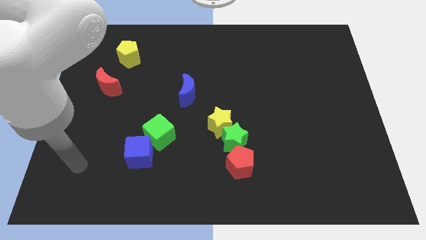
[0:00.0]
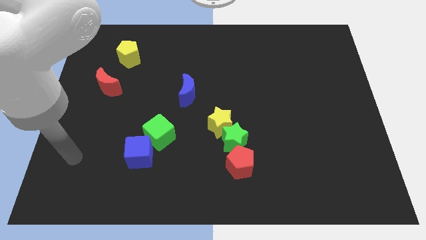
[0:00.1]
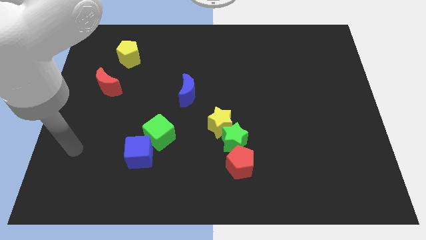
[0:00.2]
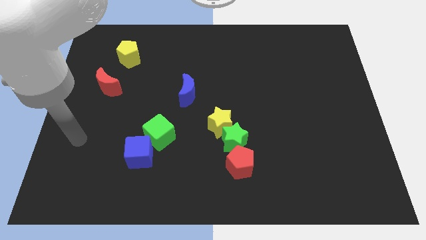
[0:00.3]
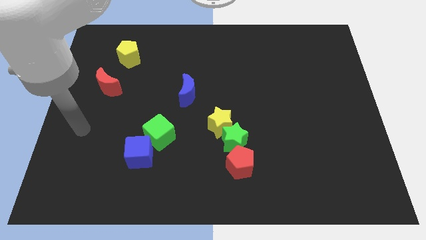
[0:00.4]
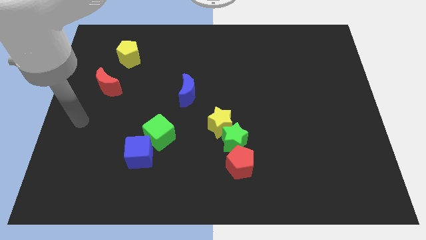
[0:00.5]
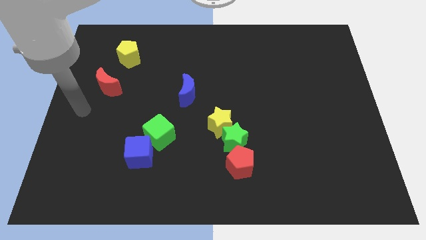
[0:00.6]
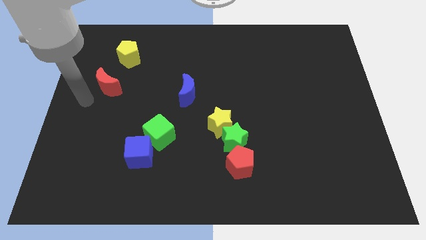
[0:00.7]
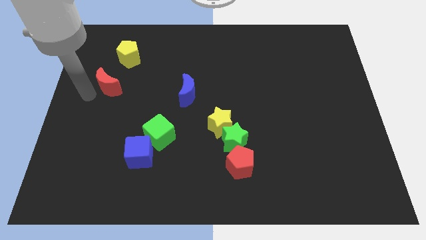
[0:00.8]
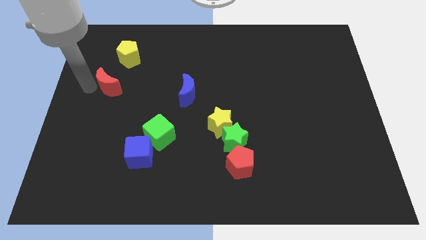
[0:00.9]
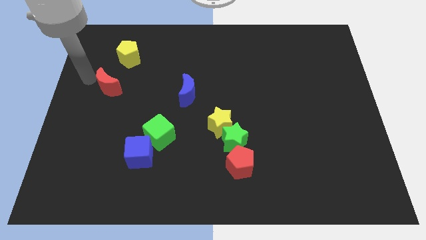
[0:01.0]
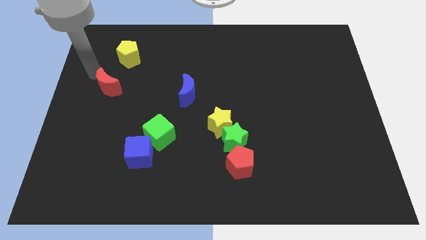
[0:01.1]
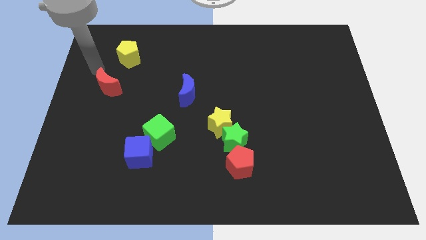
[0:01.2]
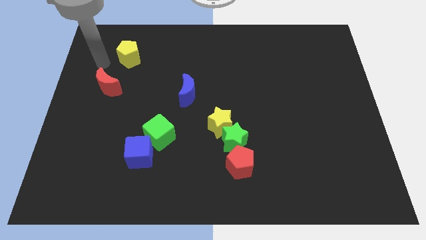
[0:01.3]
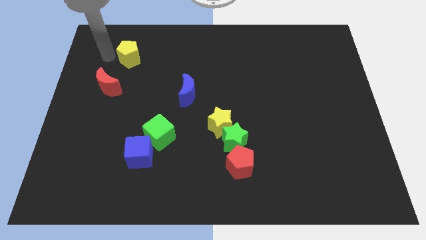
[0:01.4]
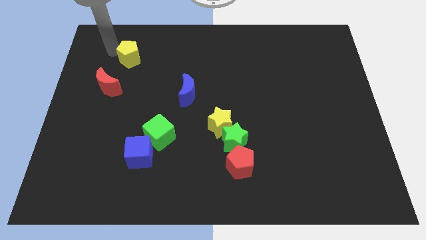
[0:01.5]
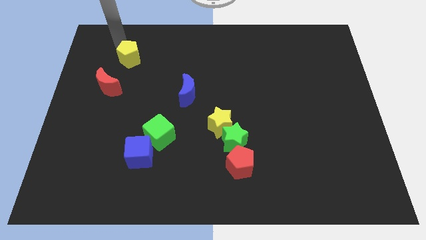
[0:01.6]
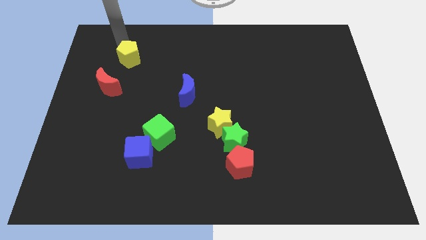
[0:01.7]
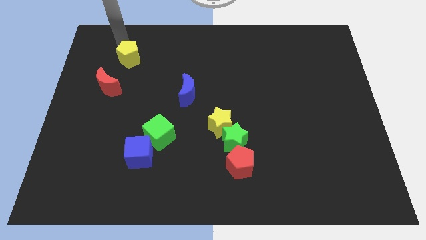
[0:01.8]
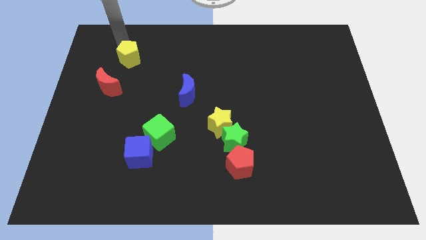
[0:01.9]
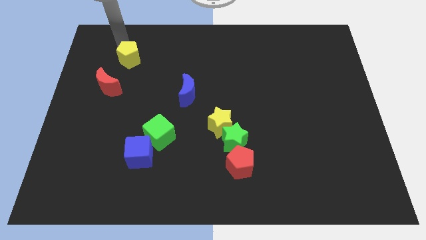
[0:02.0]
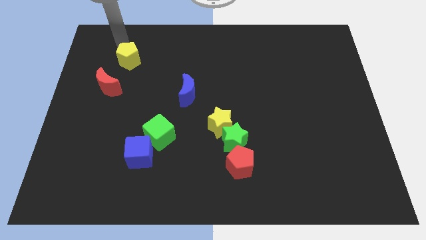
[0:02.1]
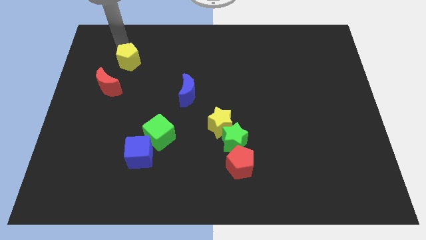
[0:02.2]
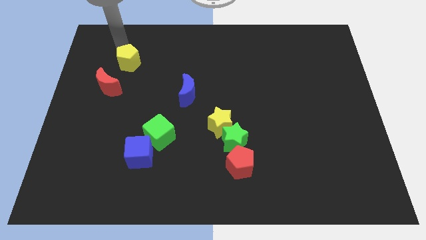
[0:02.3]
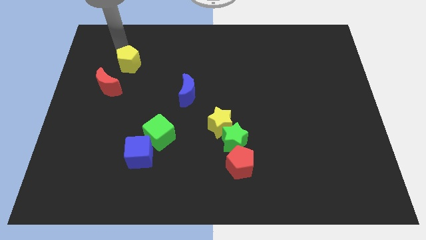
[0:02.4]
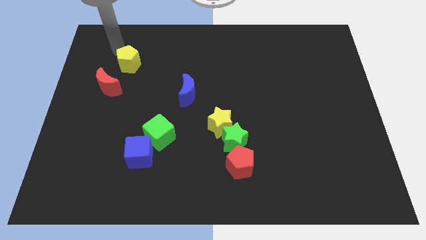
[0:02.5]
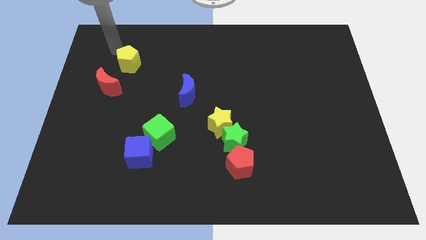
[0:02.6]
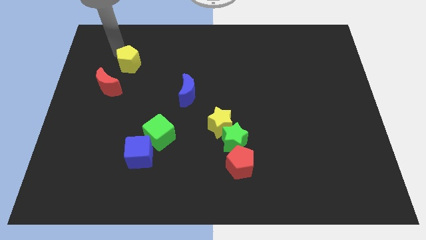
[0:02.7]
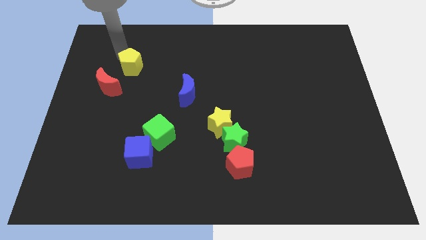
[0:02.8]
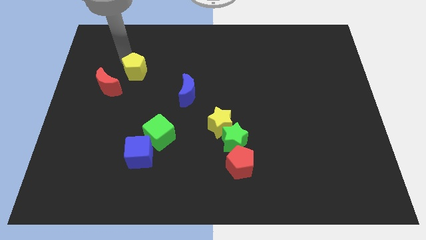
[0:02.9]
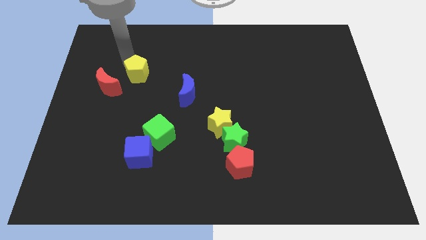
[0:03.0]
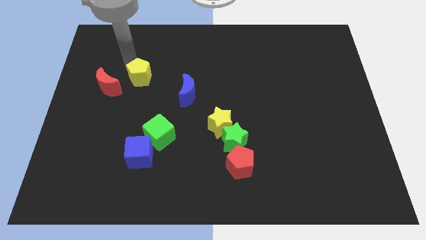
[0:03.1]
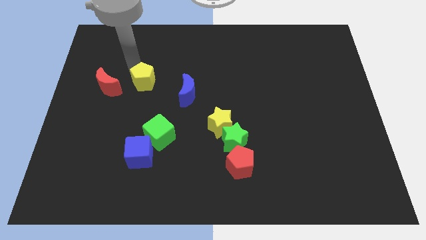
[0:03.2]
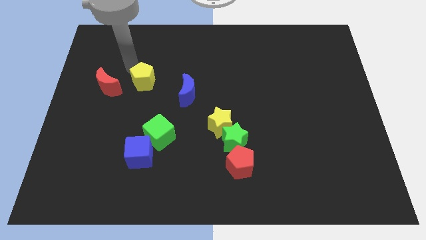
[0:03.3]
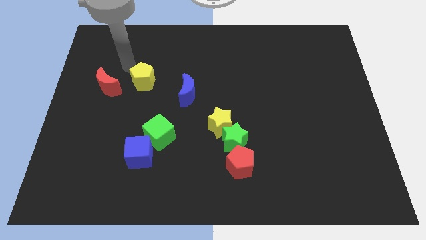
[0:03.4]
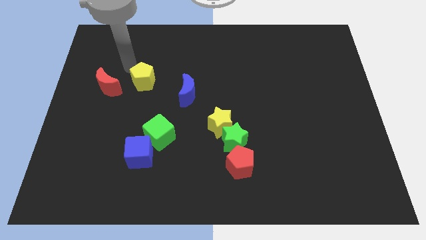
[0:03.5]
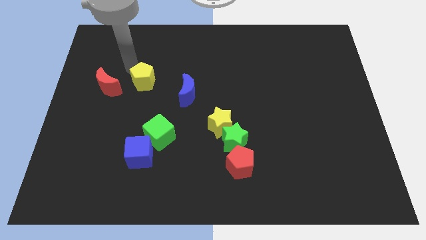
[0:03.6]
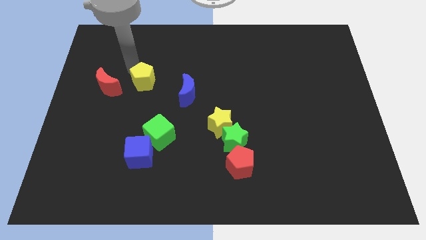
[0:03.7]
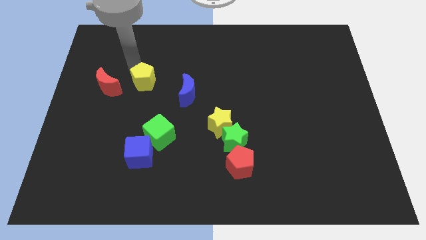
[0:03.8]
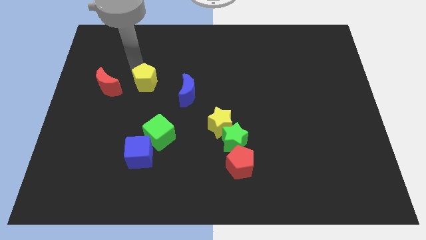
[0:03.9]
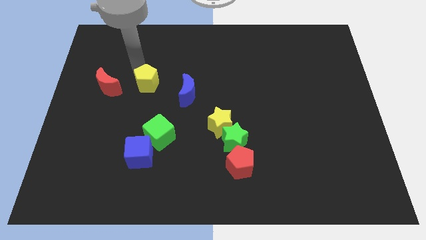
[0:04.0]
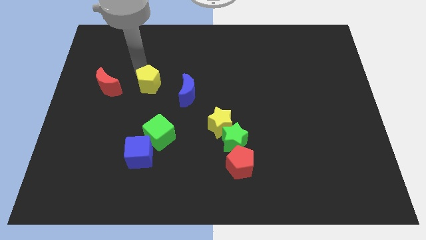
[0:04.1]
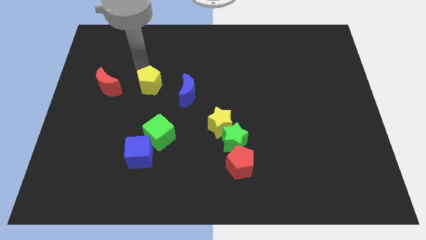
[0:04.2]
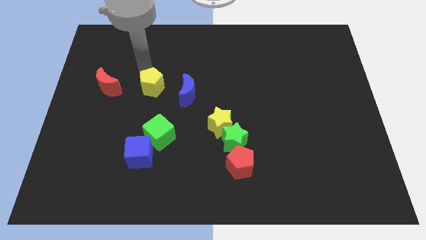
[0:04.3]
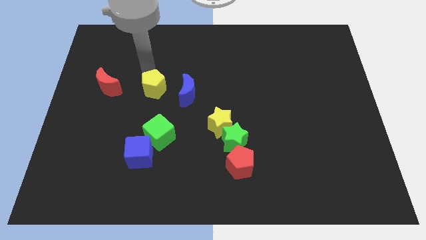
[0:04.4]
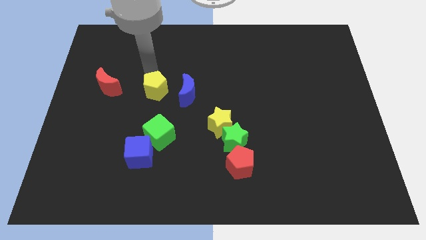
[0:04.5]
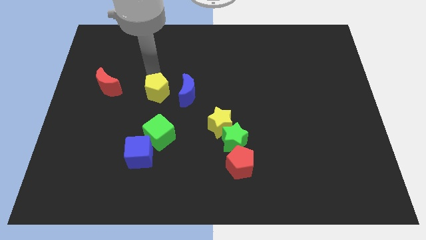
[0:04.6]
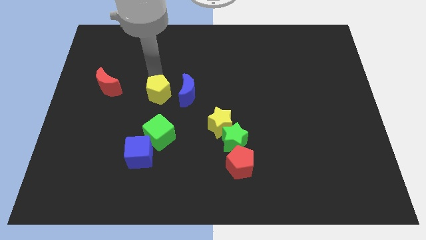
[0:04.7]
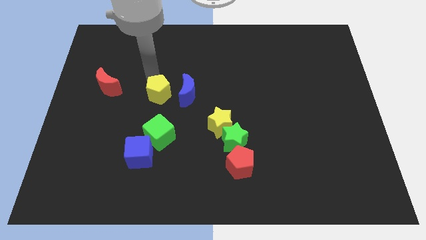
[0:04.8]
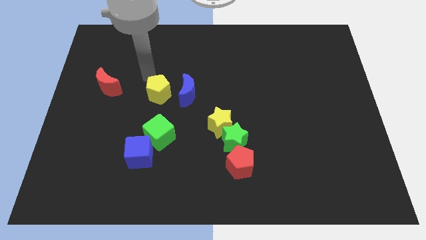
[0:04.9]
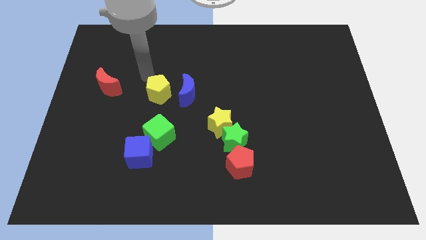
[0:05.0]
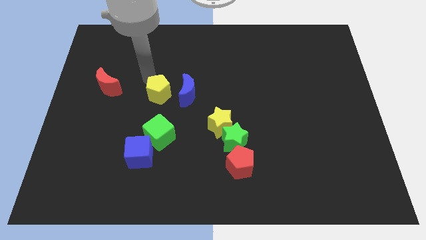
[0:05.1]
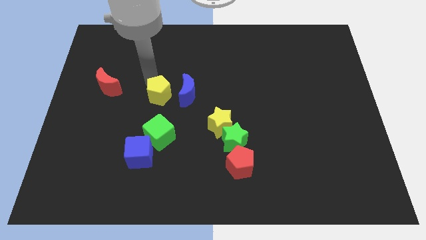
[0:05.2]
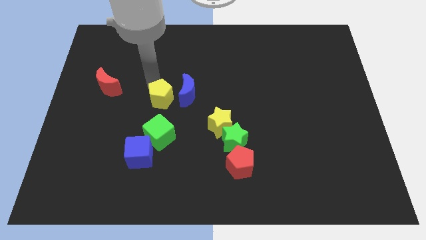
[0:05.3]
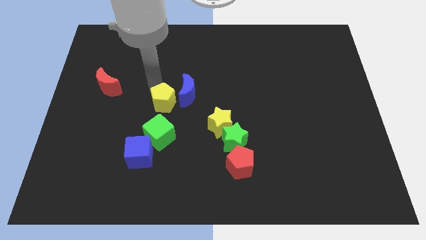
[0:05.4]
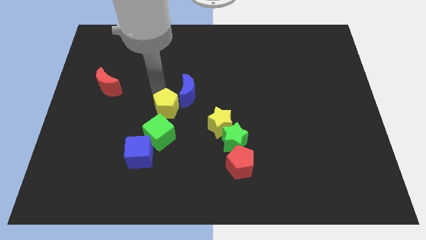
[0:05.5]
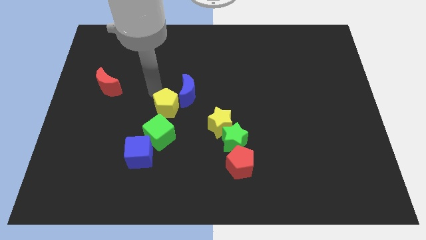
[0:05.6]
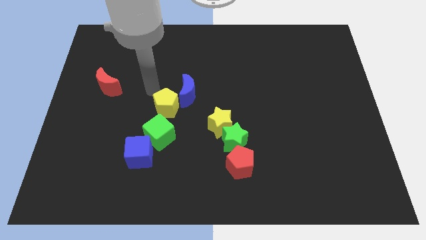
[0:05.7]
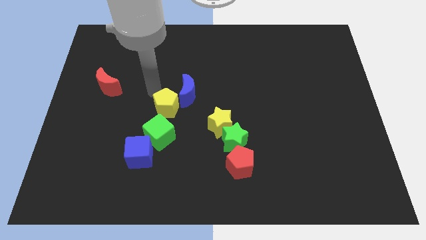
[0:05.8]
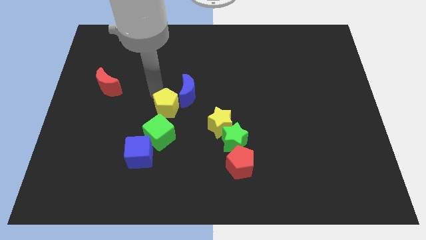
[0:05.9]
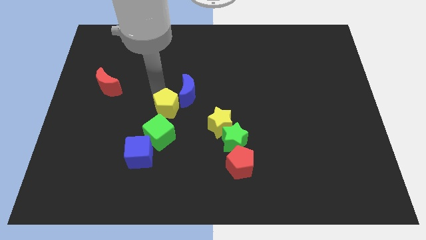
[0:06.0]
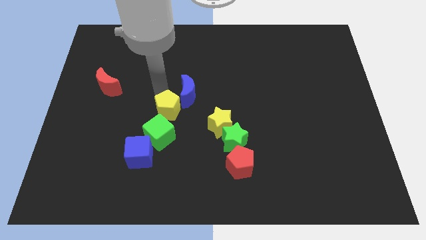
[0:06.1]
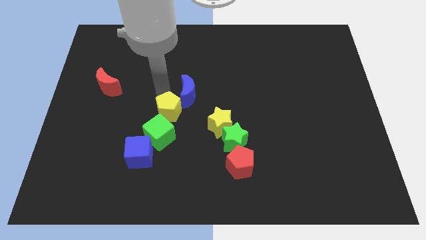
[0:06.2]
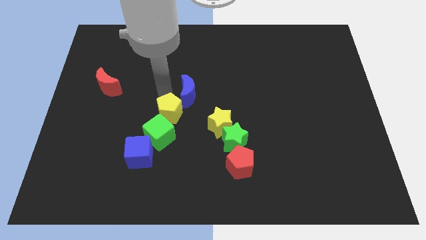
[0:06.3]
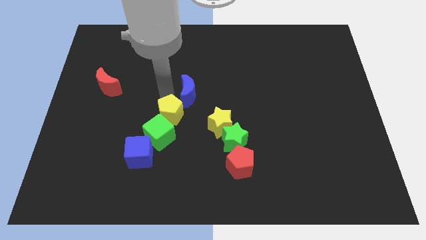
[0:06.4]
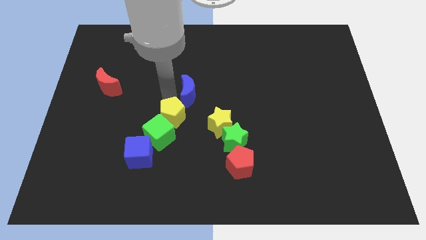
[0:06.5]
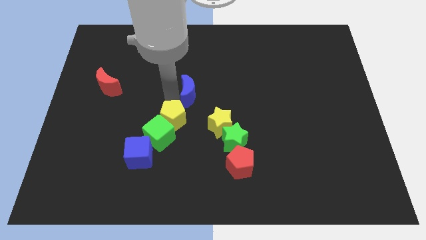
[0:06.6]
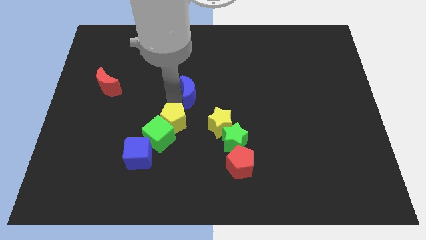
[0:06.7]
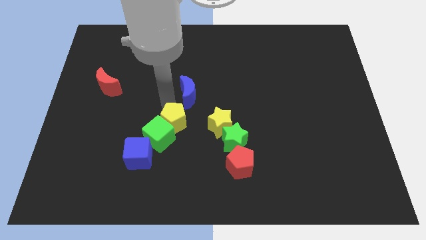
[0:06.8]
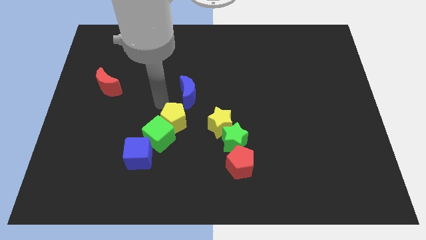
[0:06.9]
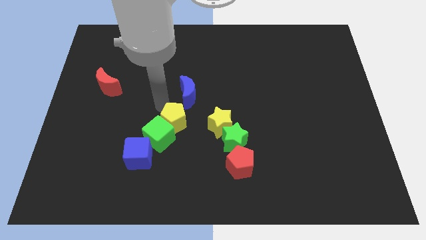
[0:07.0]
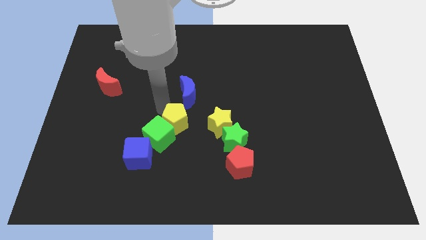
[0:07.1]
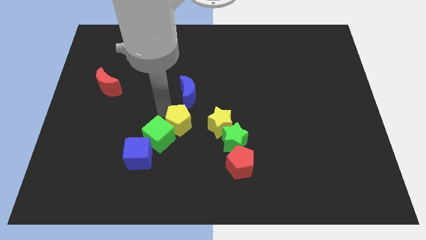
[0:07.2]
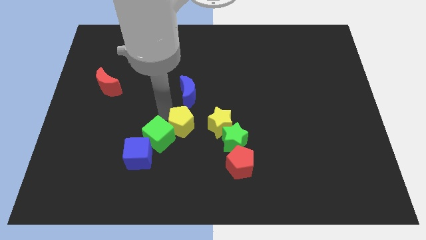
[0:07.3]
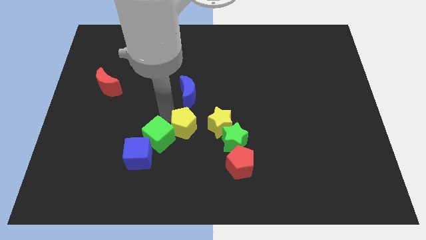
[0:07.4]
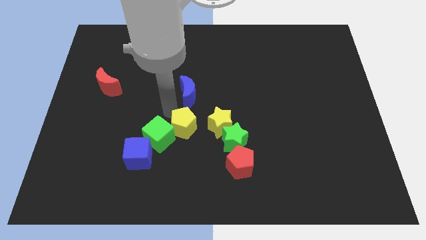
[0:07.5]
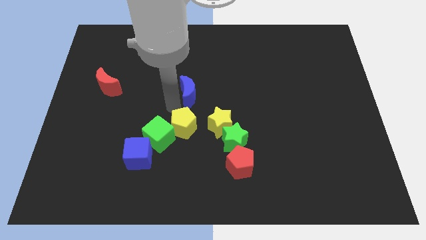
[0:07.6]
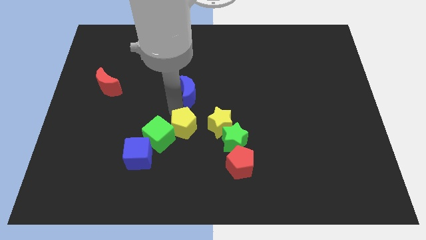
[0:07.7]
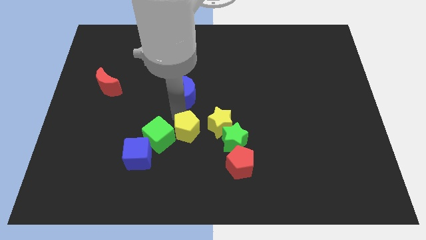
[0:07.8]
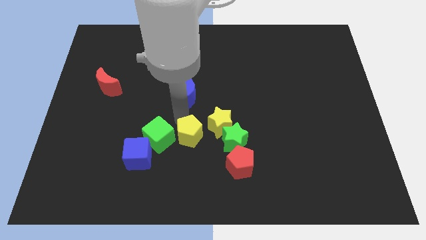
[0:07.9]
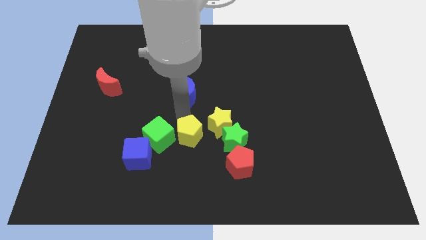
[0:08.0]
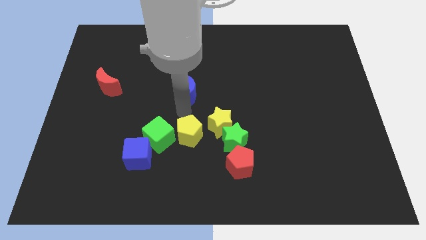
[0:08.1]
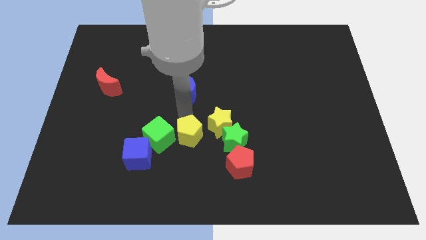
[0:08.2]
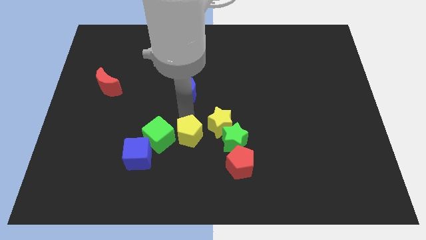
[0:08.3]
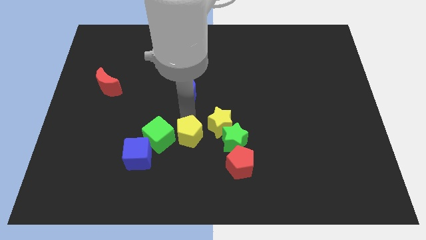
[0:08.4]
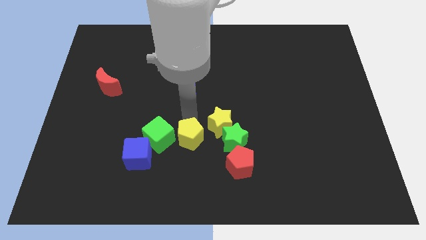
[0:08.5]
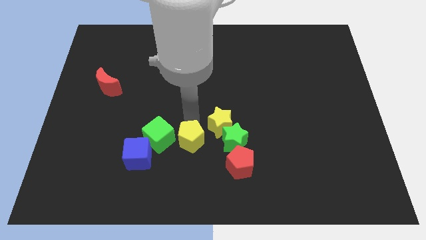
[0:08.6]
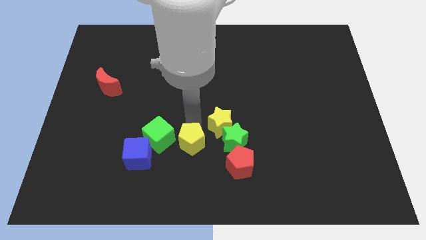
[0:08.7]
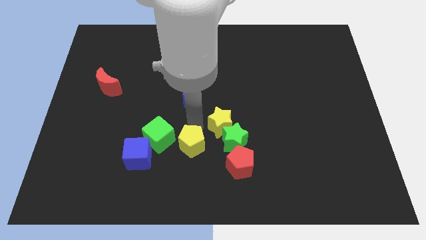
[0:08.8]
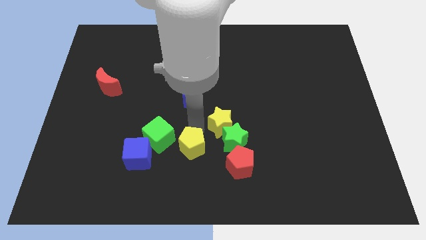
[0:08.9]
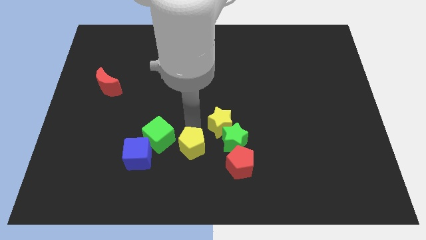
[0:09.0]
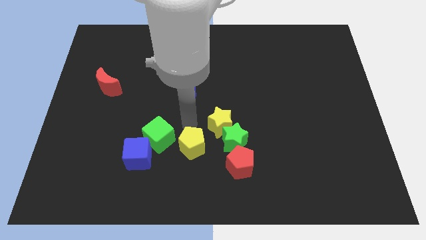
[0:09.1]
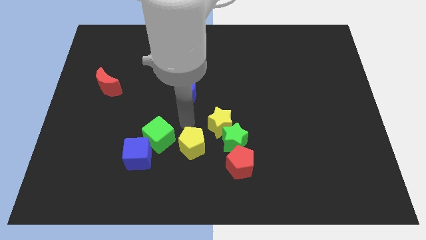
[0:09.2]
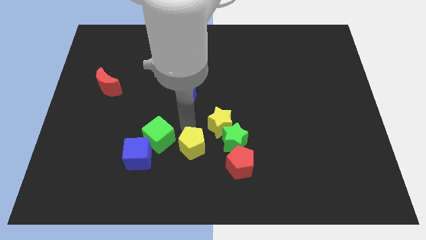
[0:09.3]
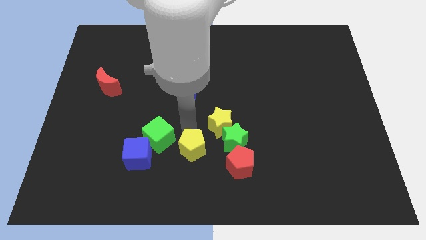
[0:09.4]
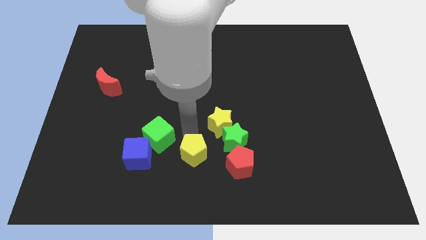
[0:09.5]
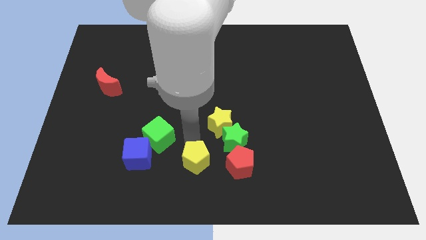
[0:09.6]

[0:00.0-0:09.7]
put the yellow pentagon to the bottom side
